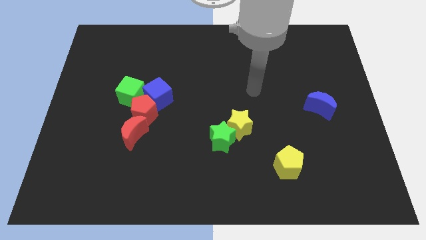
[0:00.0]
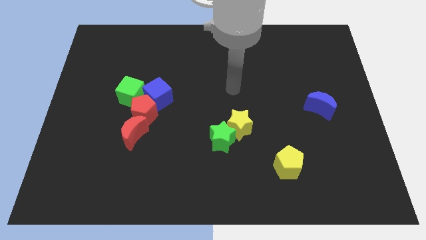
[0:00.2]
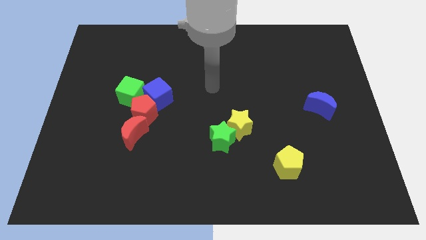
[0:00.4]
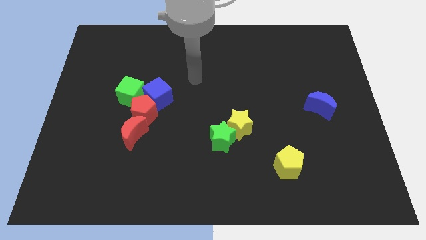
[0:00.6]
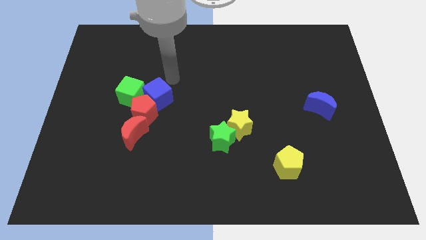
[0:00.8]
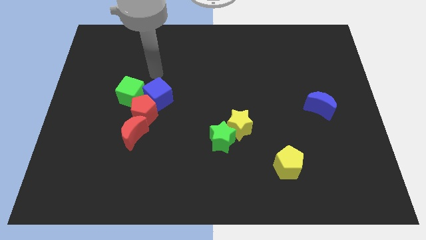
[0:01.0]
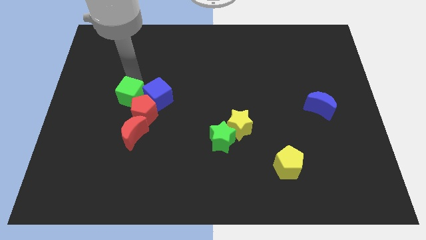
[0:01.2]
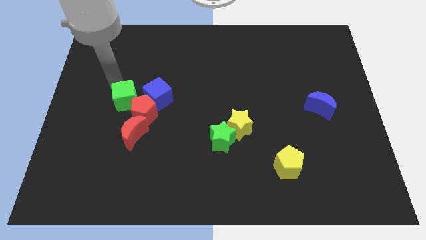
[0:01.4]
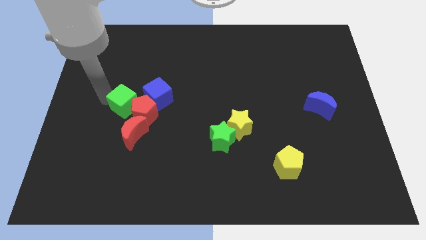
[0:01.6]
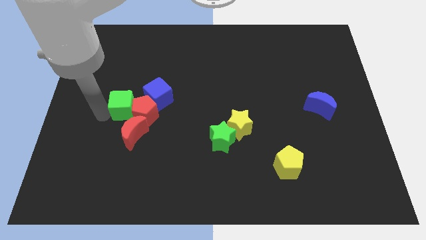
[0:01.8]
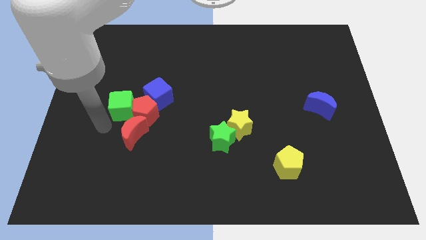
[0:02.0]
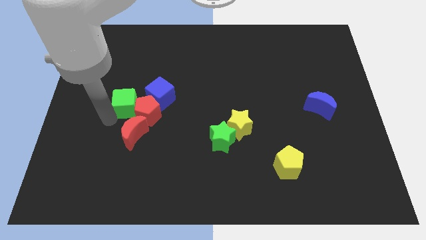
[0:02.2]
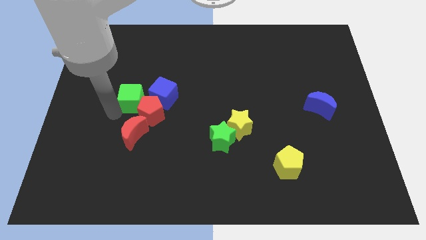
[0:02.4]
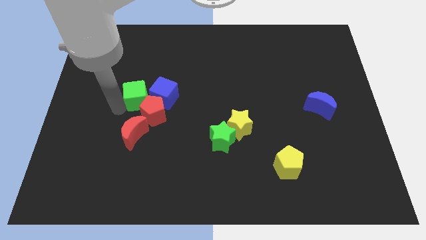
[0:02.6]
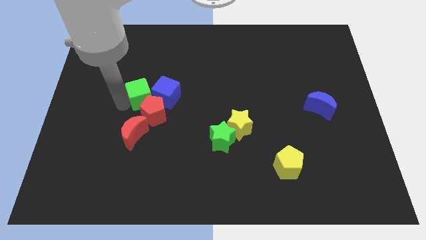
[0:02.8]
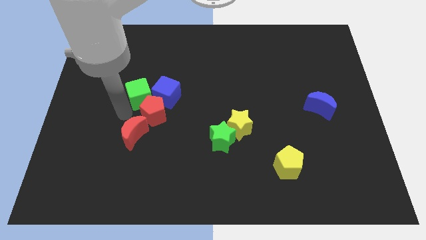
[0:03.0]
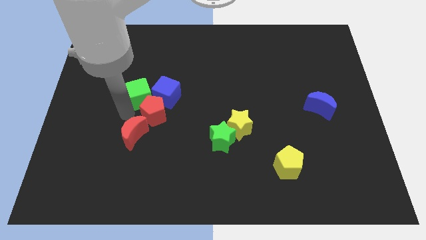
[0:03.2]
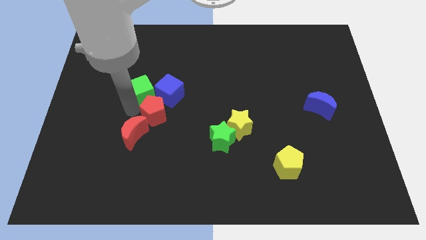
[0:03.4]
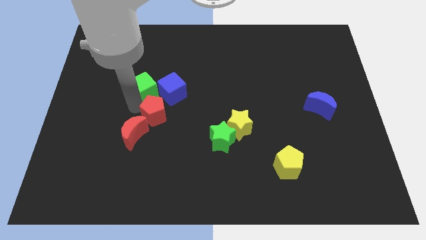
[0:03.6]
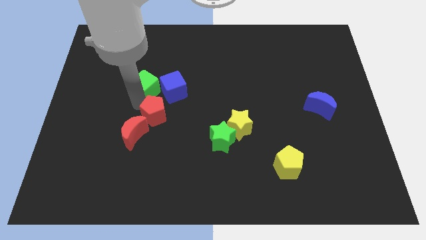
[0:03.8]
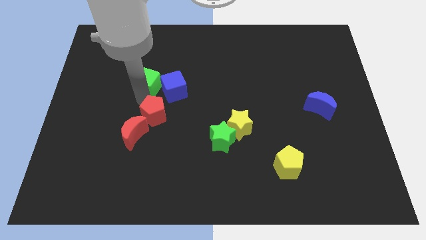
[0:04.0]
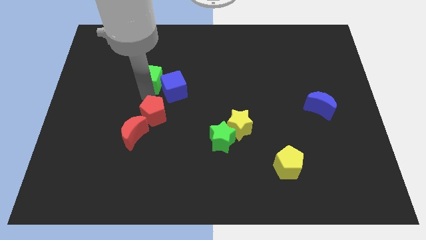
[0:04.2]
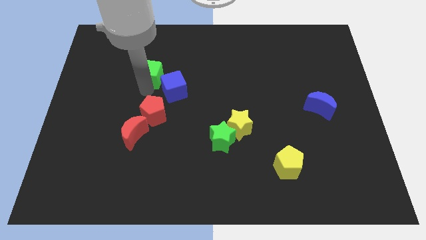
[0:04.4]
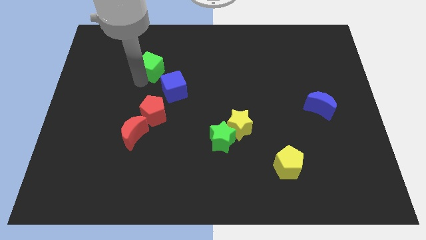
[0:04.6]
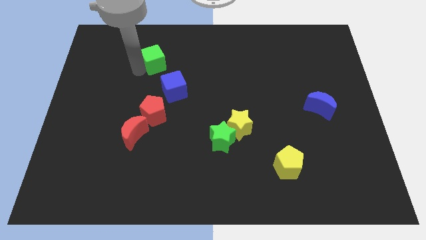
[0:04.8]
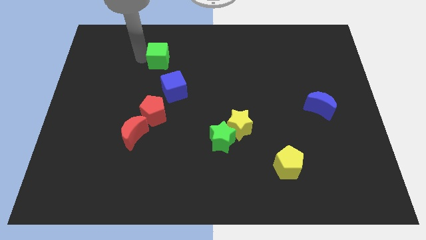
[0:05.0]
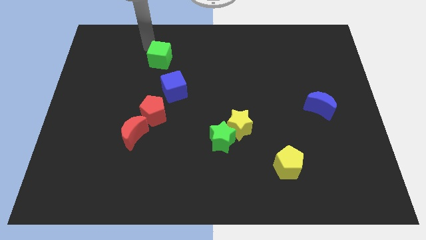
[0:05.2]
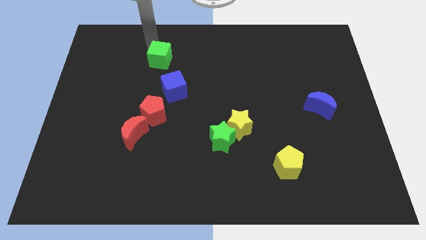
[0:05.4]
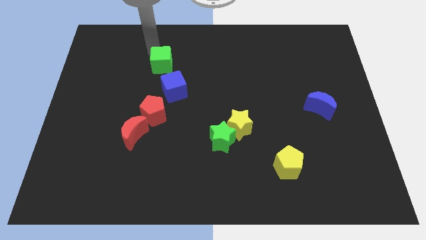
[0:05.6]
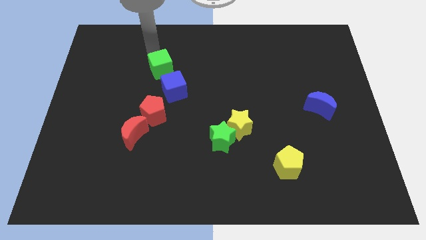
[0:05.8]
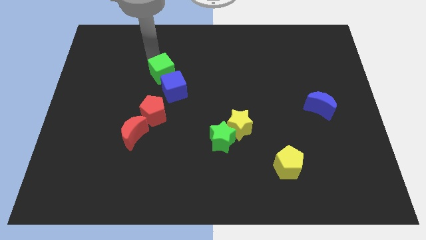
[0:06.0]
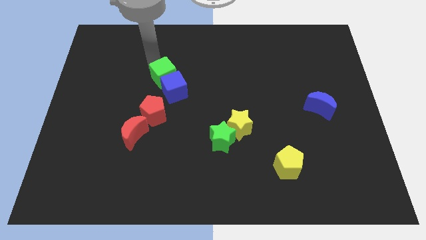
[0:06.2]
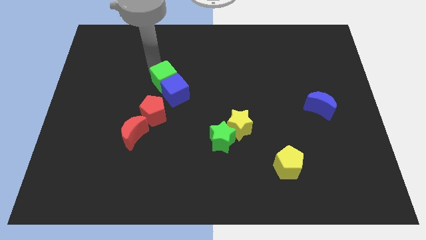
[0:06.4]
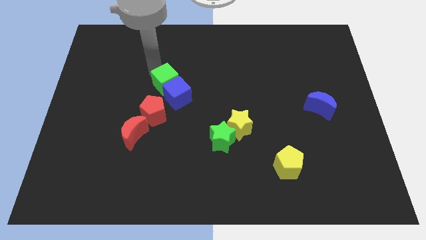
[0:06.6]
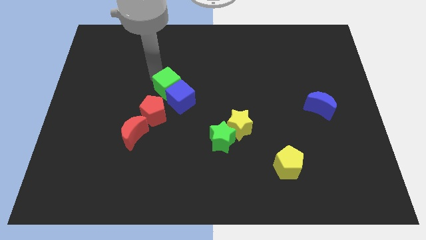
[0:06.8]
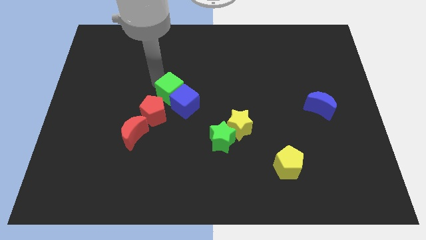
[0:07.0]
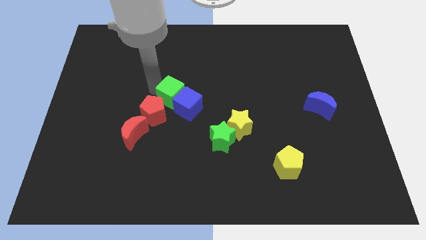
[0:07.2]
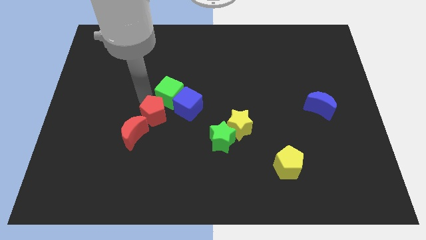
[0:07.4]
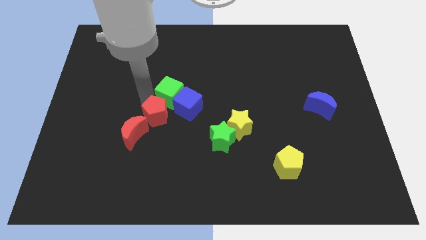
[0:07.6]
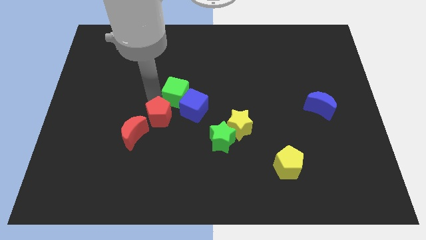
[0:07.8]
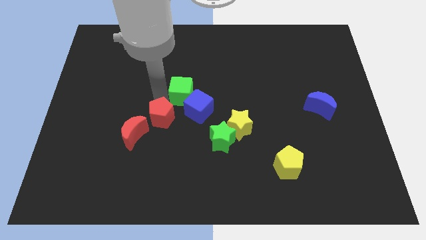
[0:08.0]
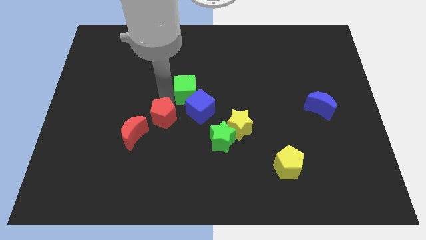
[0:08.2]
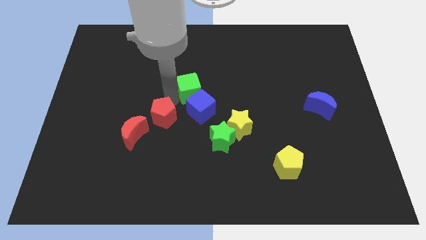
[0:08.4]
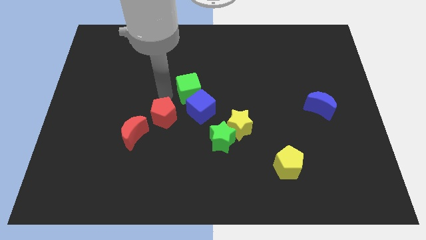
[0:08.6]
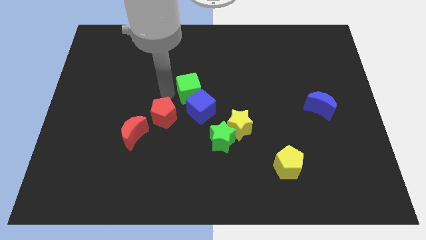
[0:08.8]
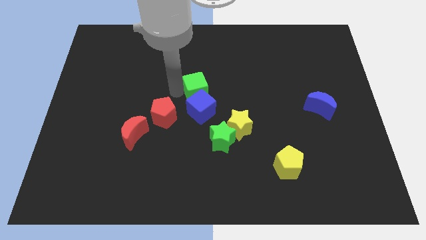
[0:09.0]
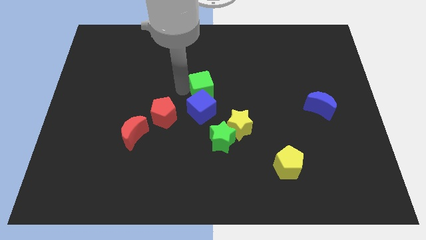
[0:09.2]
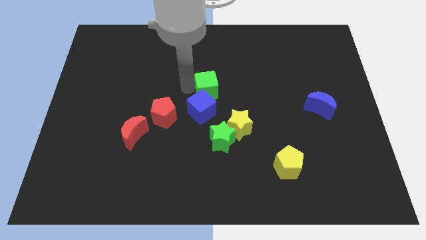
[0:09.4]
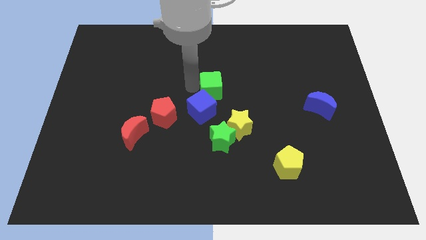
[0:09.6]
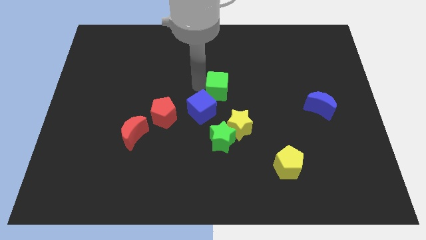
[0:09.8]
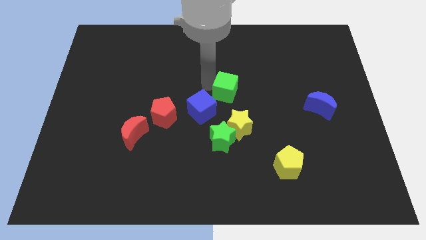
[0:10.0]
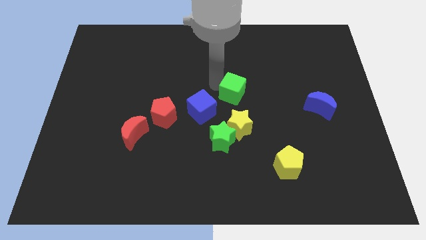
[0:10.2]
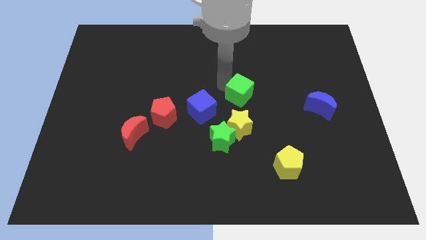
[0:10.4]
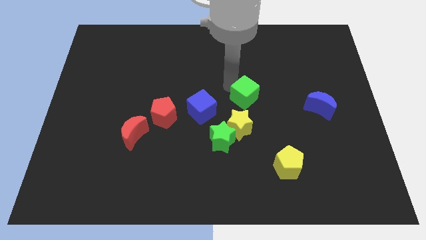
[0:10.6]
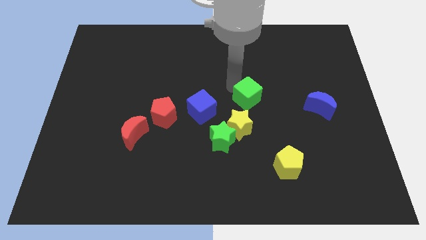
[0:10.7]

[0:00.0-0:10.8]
put the green cube to the top right of the yellow star

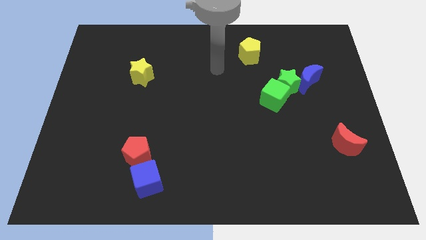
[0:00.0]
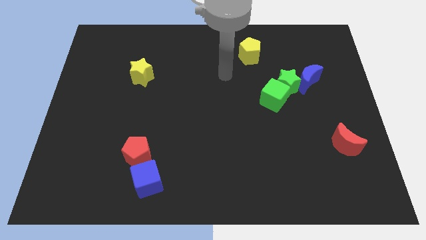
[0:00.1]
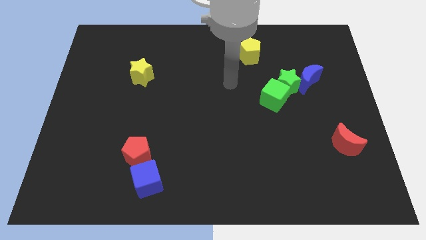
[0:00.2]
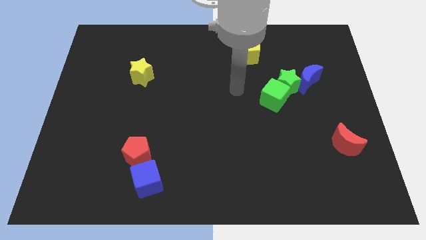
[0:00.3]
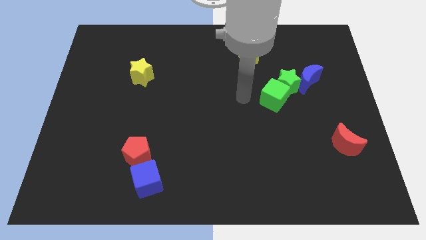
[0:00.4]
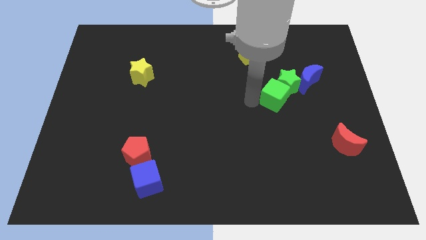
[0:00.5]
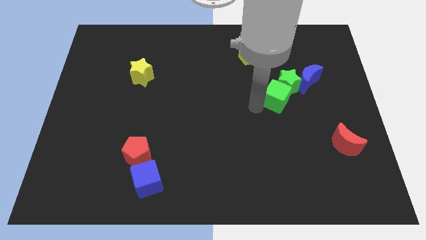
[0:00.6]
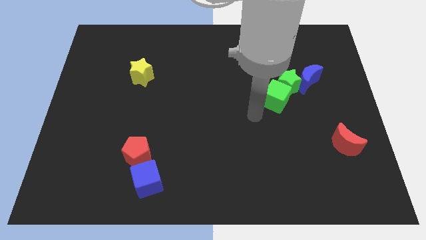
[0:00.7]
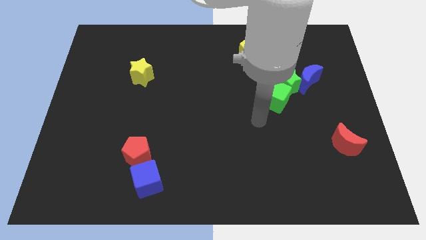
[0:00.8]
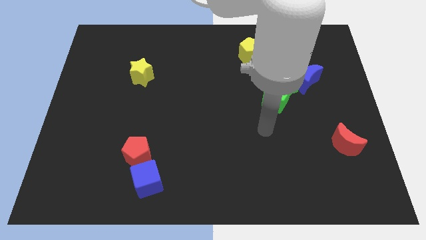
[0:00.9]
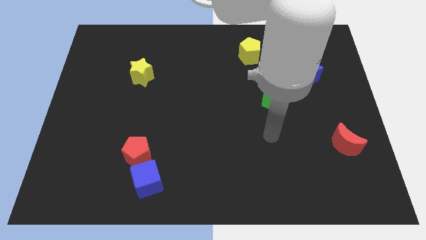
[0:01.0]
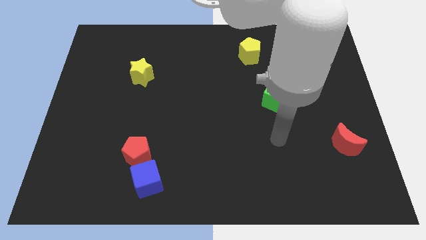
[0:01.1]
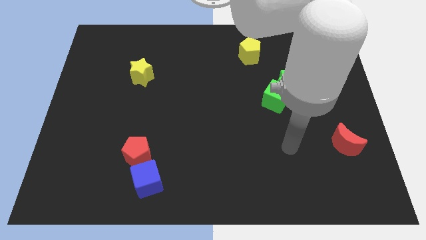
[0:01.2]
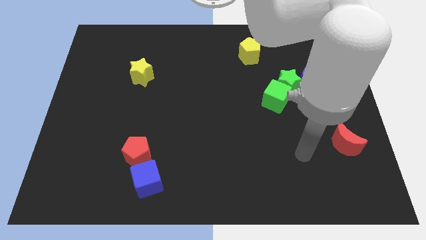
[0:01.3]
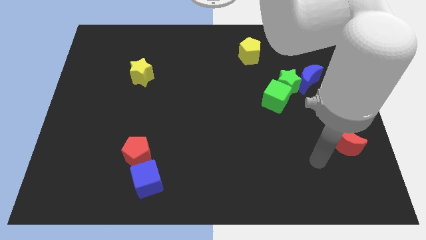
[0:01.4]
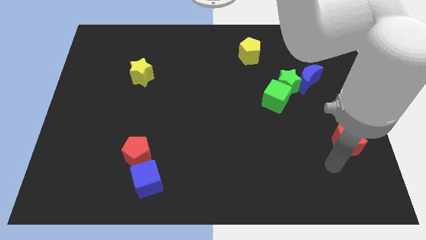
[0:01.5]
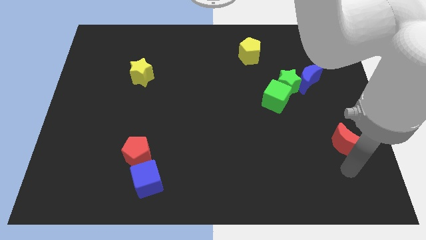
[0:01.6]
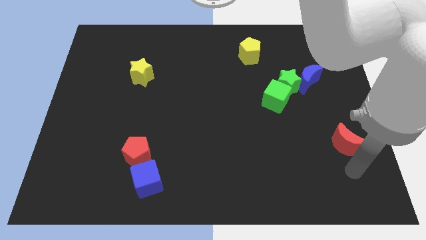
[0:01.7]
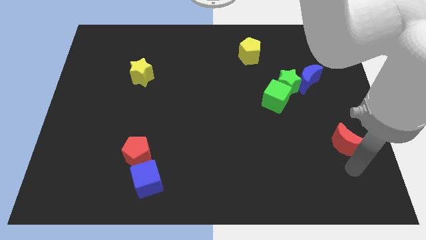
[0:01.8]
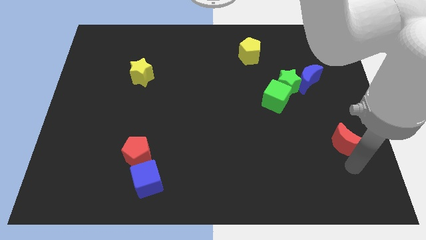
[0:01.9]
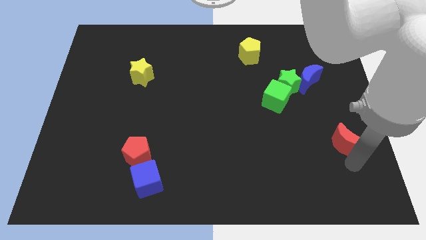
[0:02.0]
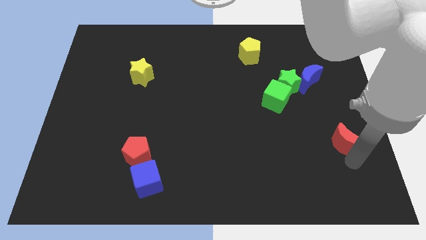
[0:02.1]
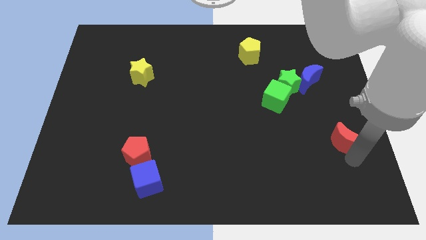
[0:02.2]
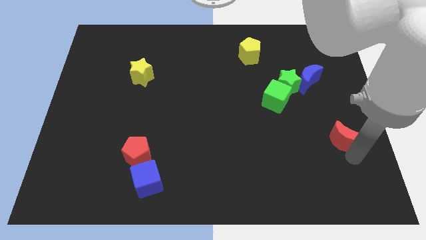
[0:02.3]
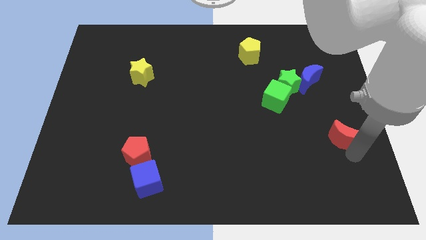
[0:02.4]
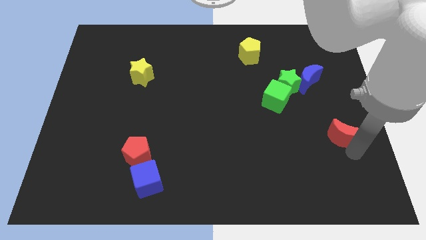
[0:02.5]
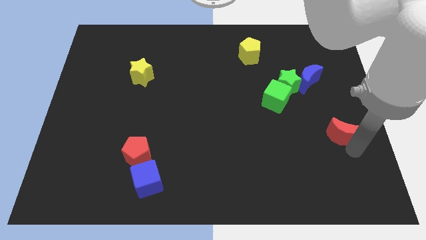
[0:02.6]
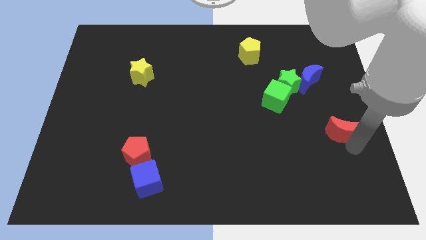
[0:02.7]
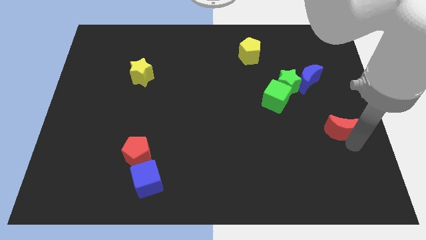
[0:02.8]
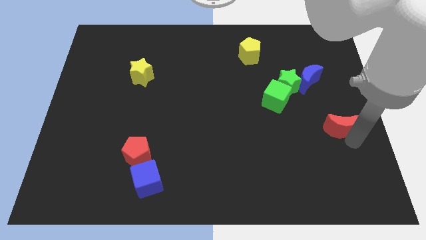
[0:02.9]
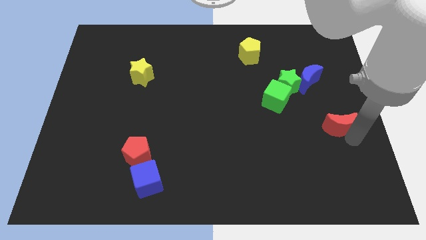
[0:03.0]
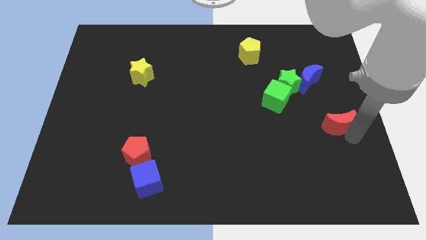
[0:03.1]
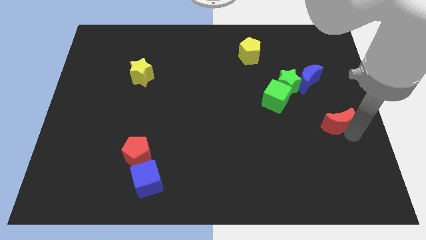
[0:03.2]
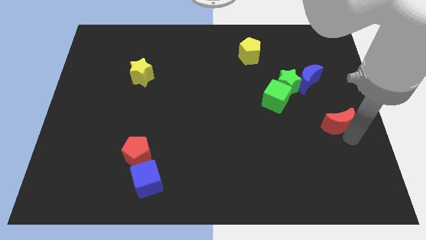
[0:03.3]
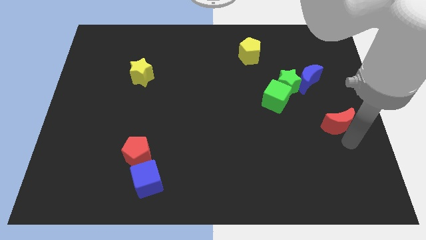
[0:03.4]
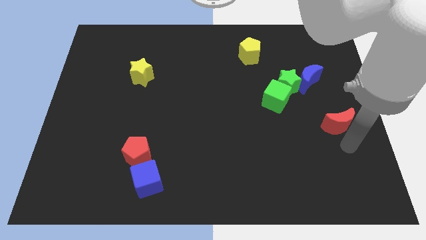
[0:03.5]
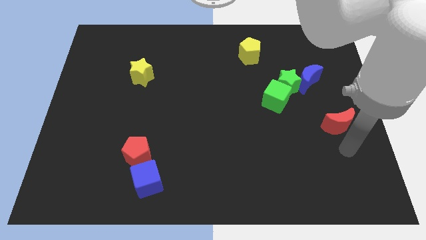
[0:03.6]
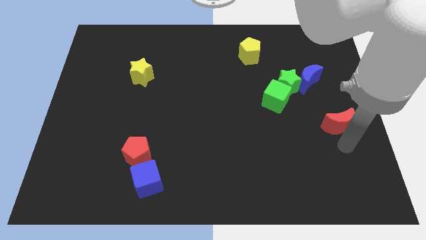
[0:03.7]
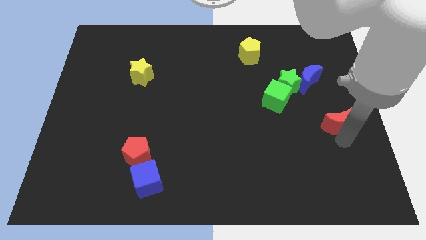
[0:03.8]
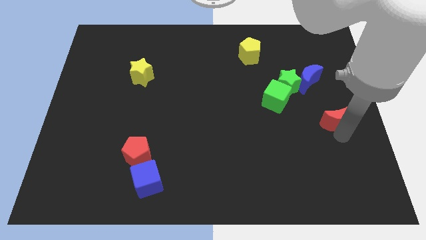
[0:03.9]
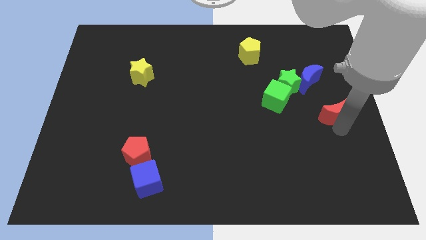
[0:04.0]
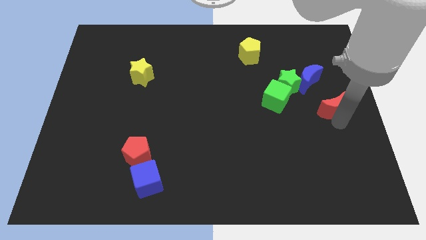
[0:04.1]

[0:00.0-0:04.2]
put the red moon right of the green cube
